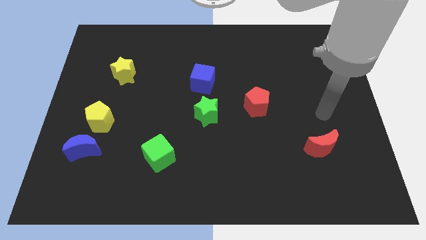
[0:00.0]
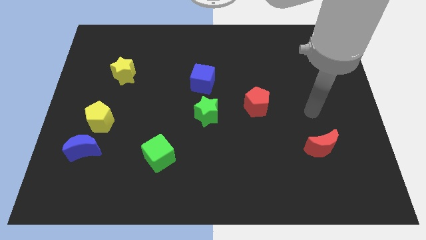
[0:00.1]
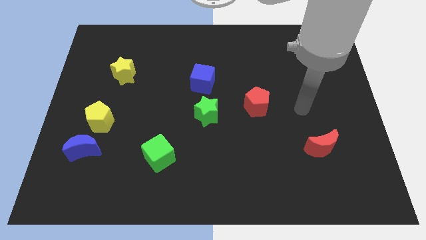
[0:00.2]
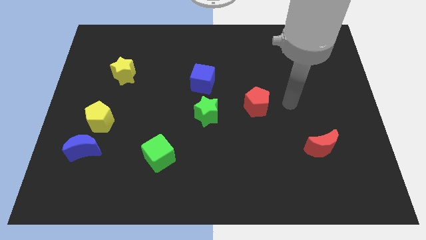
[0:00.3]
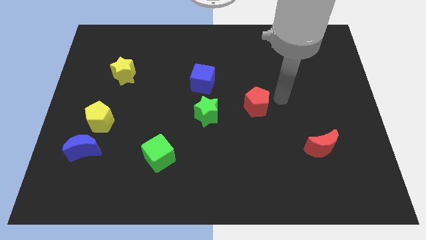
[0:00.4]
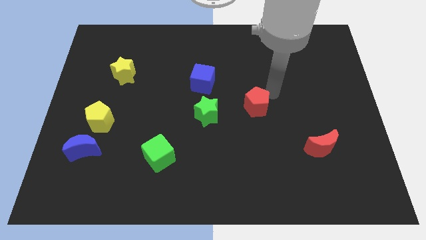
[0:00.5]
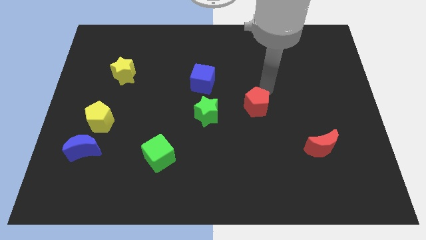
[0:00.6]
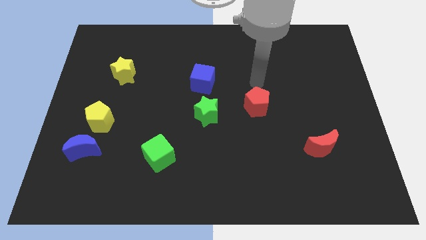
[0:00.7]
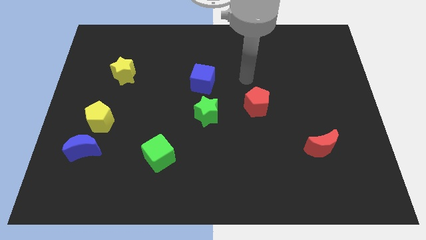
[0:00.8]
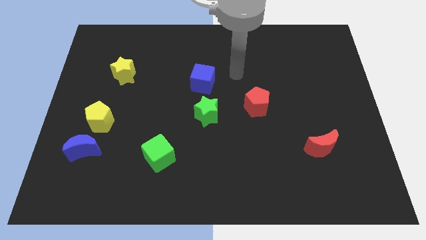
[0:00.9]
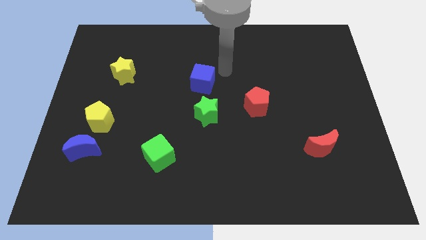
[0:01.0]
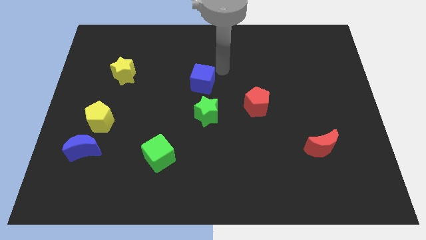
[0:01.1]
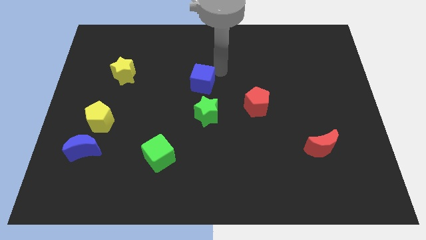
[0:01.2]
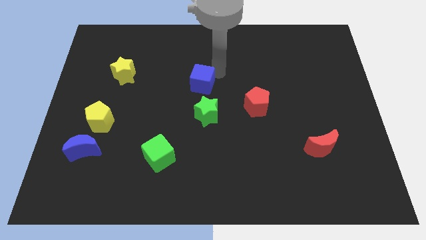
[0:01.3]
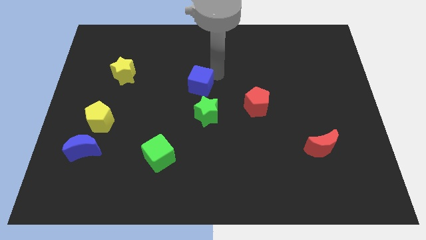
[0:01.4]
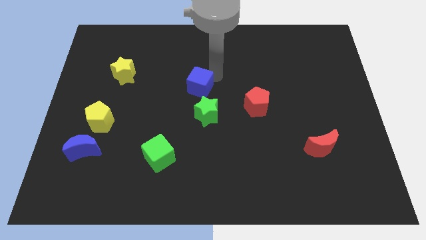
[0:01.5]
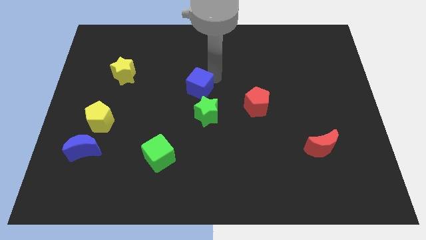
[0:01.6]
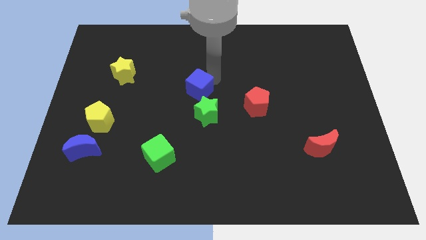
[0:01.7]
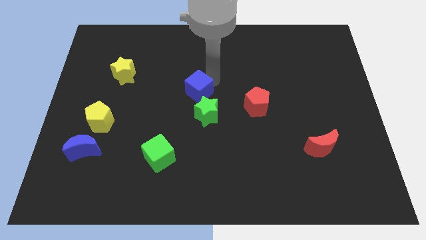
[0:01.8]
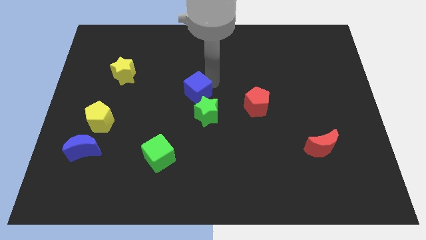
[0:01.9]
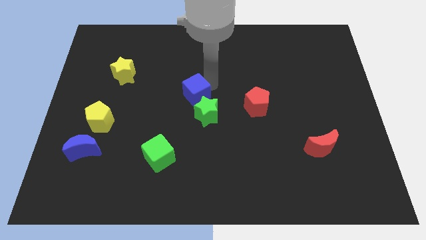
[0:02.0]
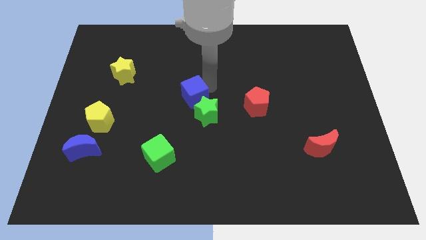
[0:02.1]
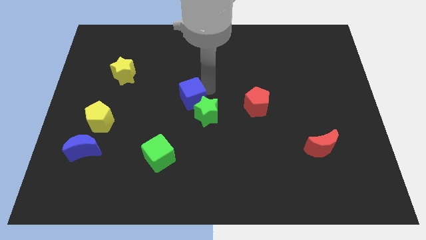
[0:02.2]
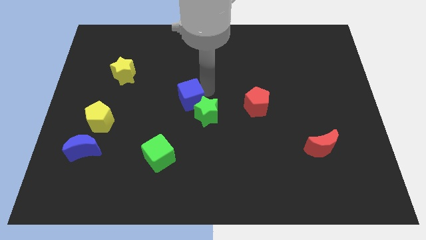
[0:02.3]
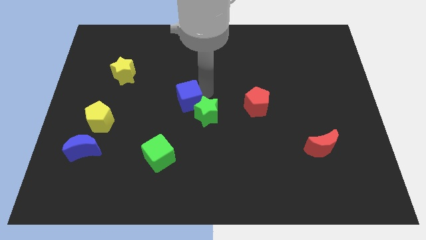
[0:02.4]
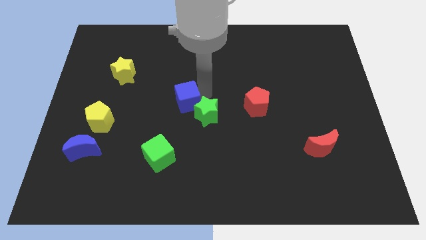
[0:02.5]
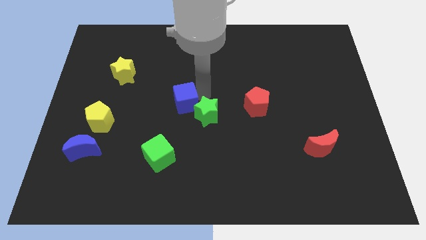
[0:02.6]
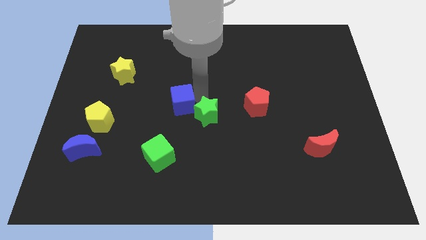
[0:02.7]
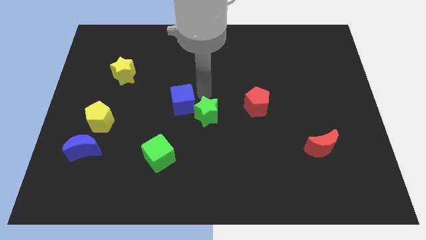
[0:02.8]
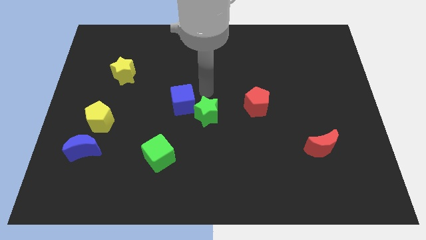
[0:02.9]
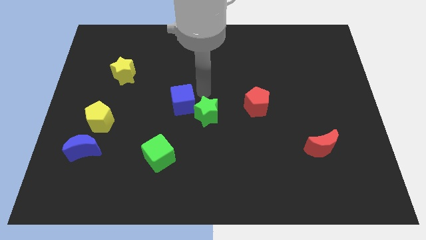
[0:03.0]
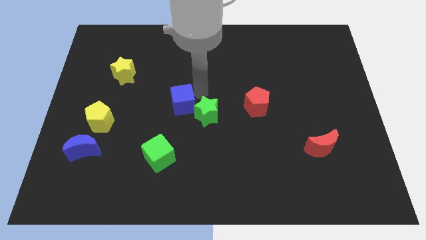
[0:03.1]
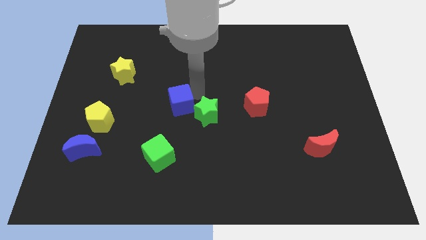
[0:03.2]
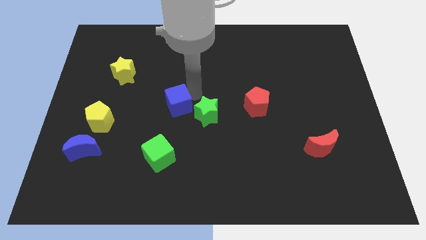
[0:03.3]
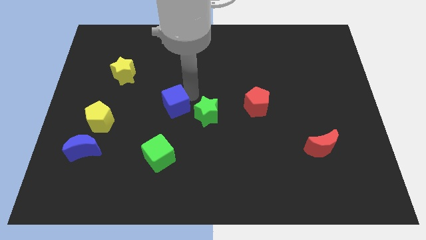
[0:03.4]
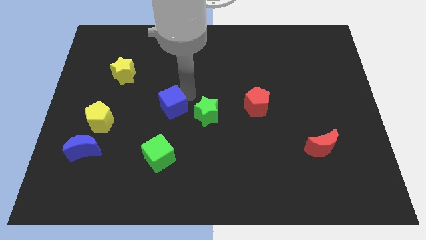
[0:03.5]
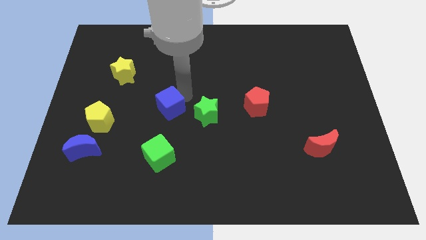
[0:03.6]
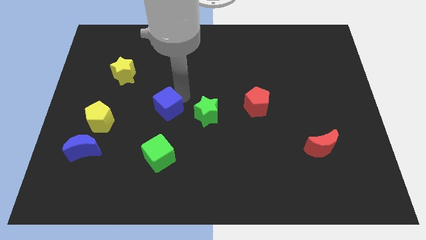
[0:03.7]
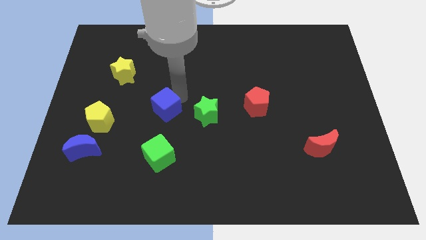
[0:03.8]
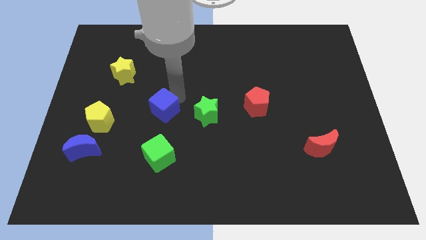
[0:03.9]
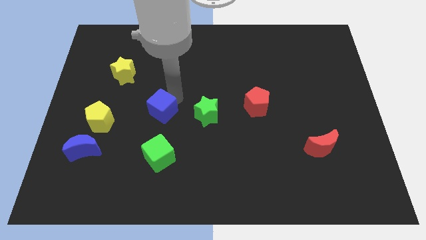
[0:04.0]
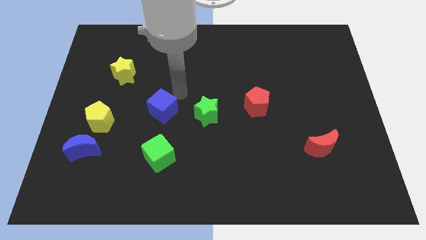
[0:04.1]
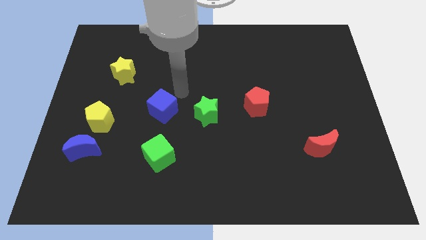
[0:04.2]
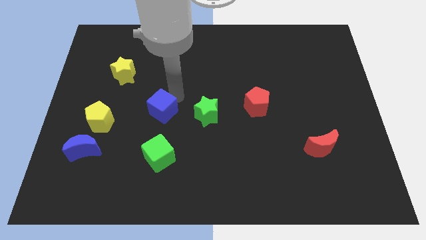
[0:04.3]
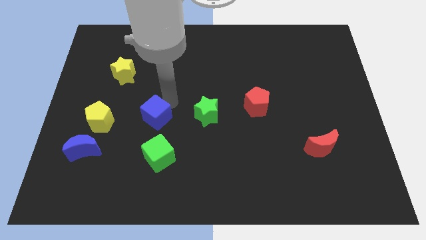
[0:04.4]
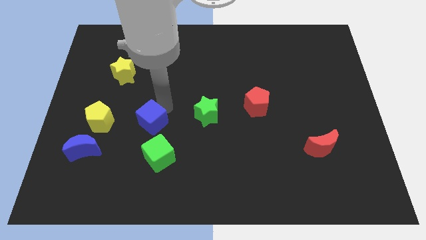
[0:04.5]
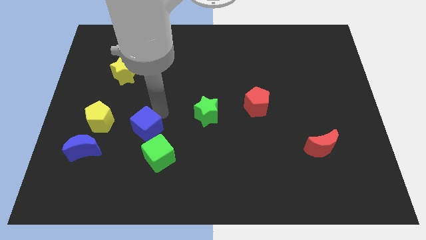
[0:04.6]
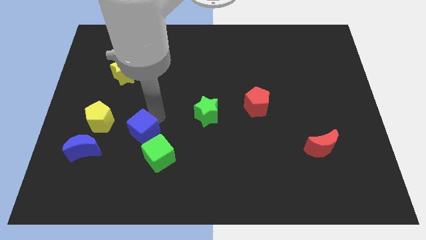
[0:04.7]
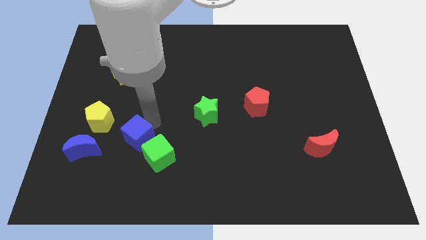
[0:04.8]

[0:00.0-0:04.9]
push the blue cube diagonally downwards and left

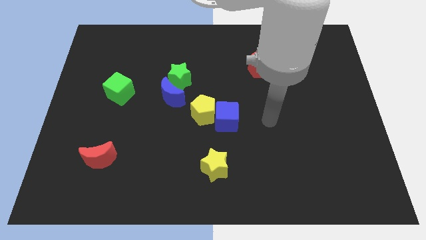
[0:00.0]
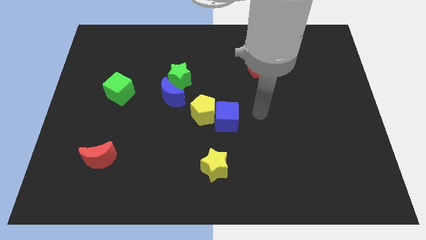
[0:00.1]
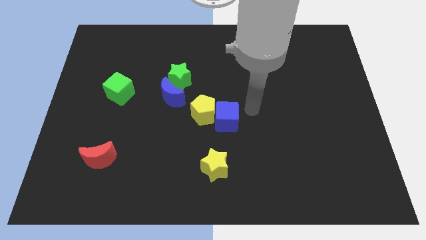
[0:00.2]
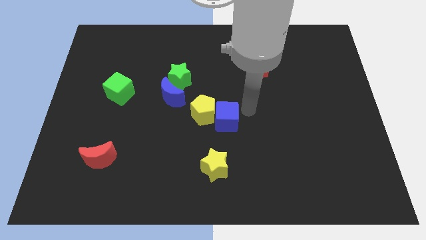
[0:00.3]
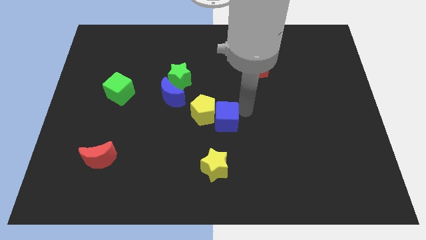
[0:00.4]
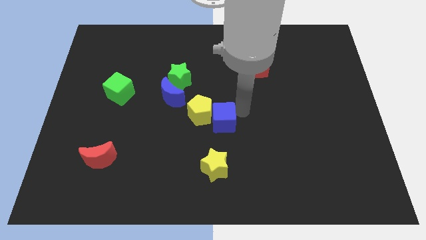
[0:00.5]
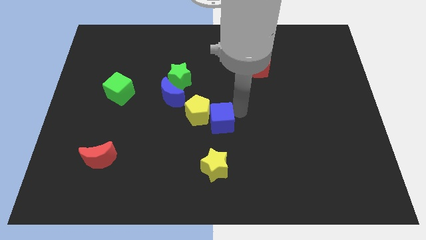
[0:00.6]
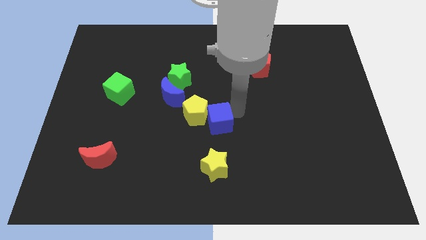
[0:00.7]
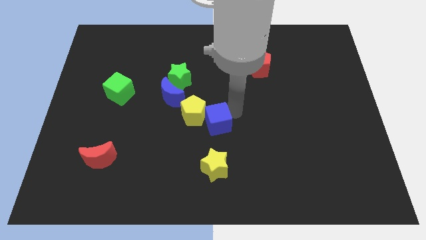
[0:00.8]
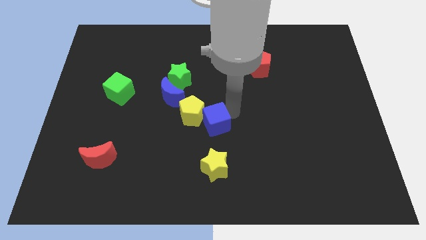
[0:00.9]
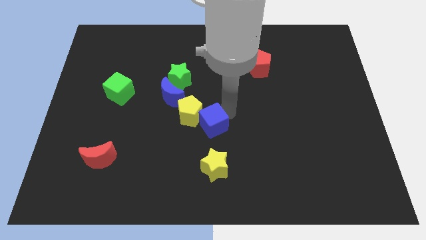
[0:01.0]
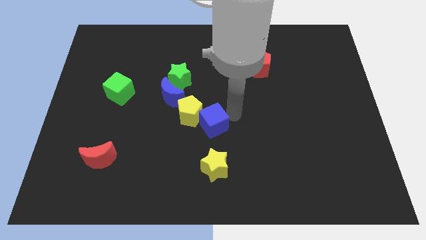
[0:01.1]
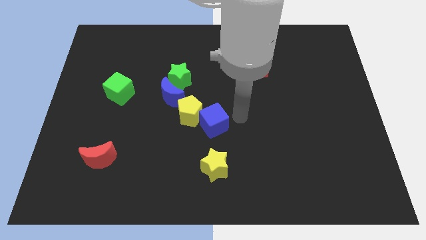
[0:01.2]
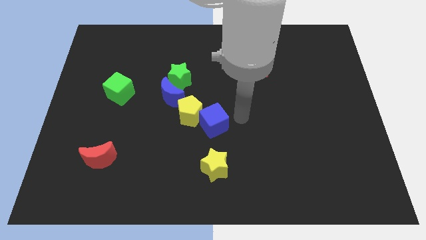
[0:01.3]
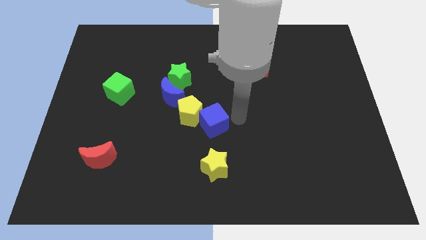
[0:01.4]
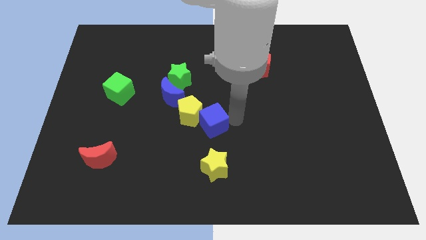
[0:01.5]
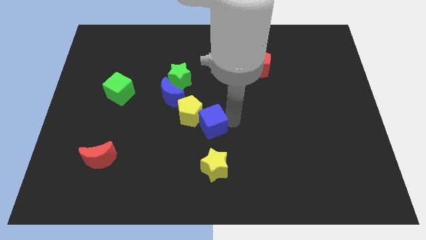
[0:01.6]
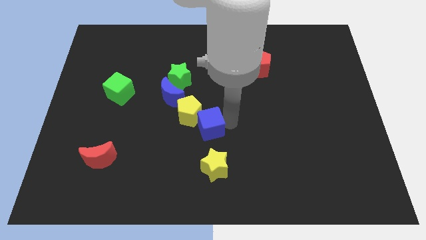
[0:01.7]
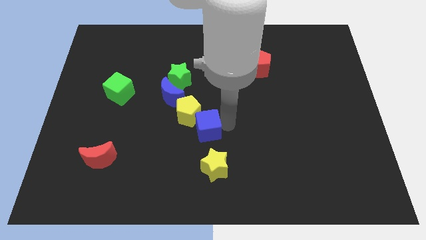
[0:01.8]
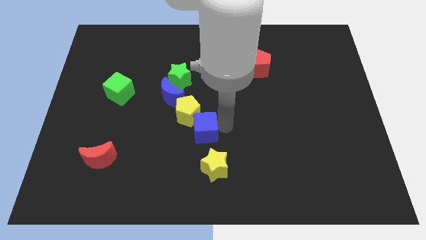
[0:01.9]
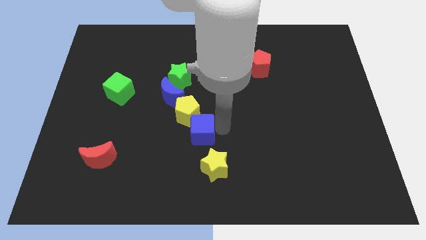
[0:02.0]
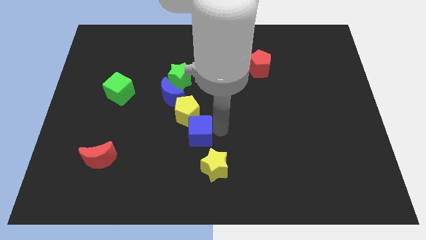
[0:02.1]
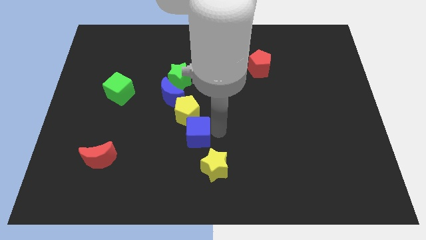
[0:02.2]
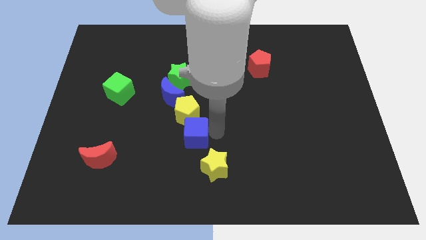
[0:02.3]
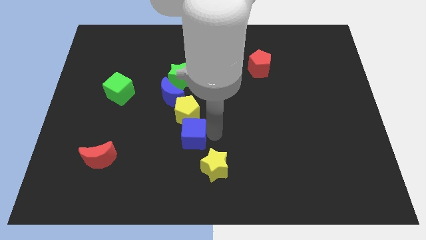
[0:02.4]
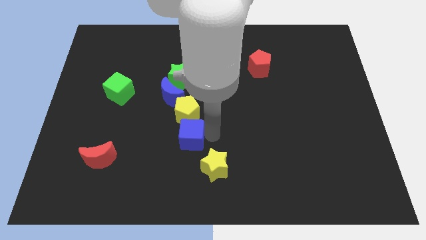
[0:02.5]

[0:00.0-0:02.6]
push the blue cube to the left a bit

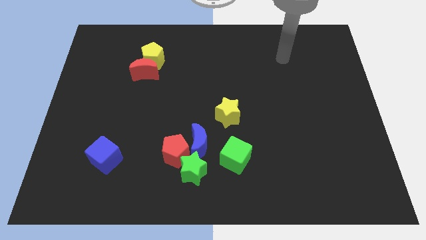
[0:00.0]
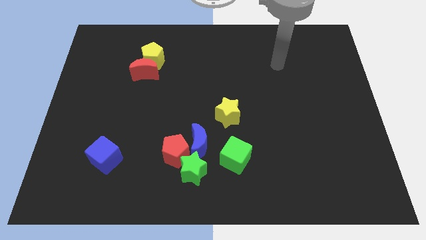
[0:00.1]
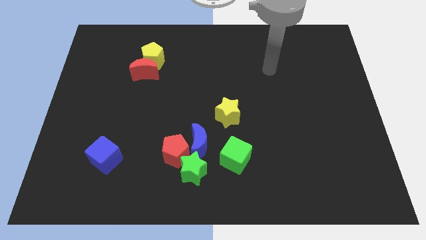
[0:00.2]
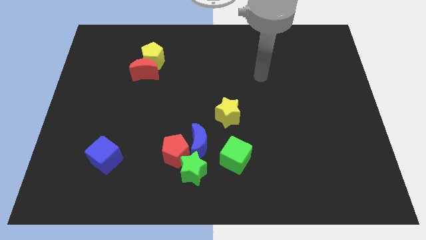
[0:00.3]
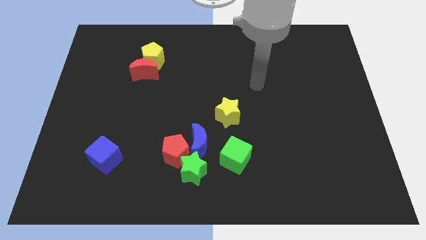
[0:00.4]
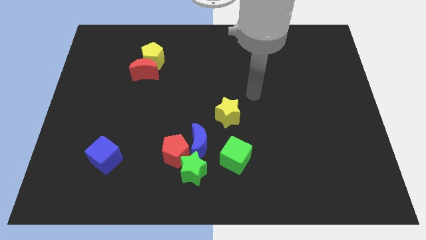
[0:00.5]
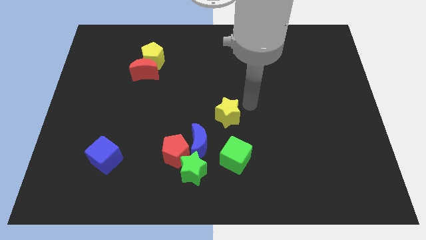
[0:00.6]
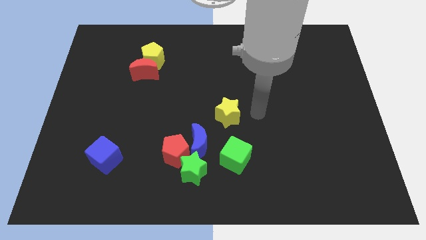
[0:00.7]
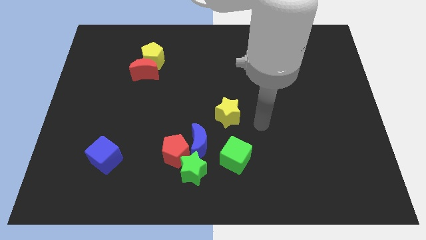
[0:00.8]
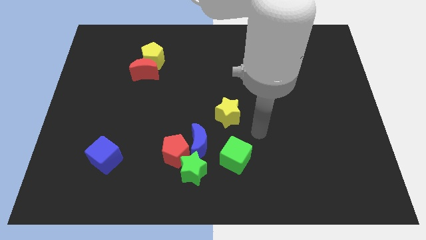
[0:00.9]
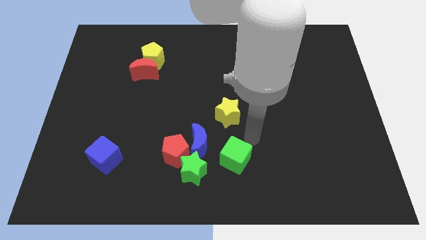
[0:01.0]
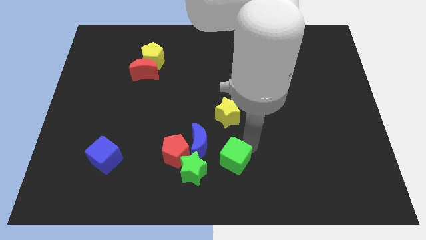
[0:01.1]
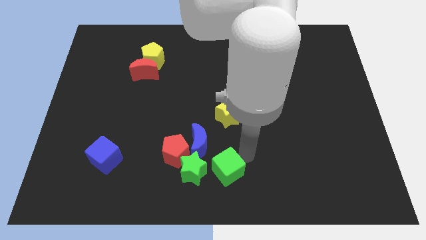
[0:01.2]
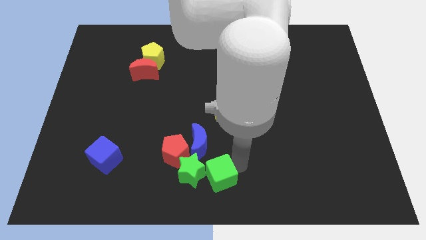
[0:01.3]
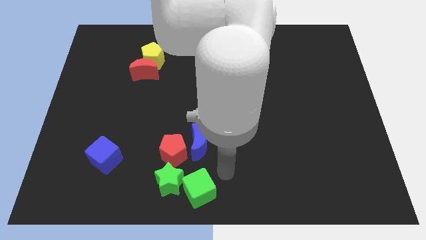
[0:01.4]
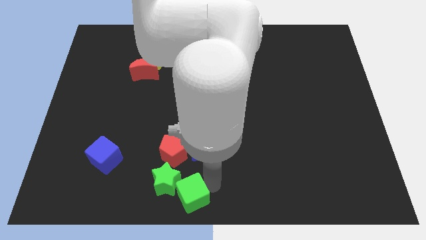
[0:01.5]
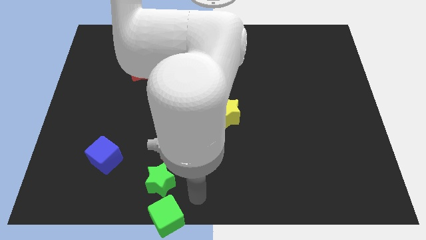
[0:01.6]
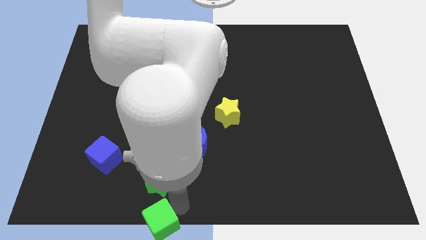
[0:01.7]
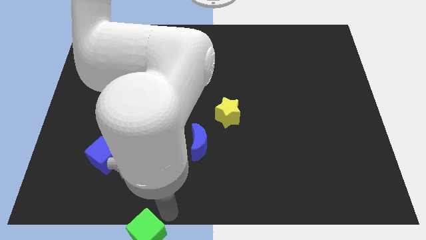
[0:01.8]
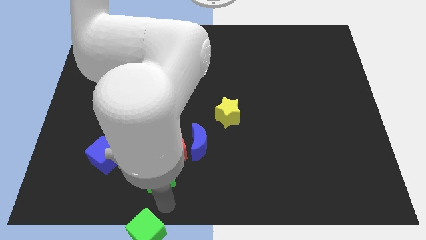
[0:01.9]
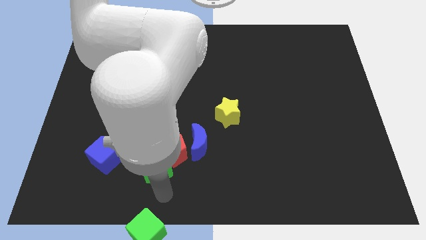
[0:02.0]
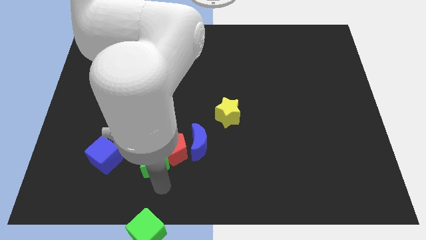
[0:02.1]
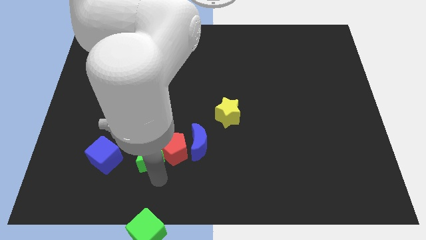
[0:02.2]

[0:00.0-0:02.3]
move the green star up and to the left diagonally a little bit
